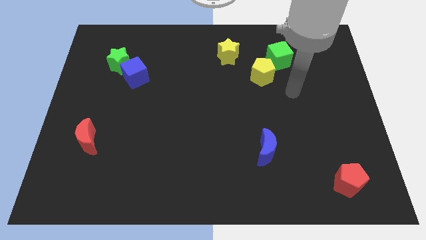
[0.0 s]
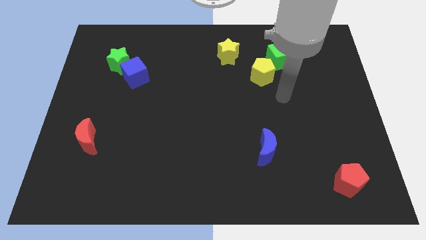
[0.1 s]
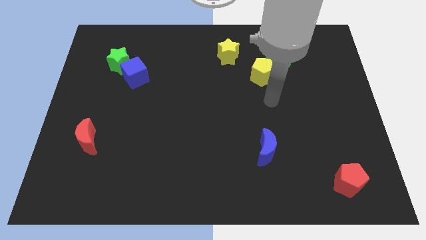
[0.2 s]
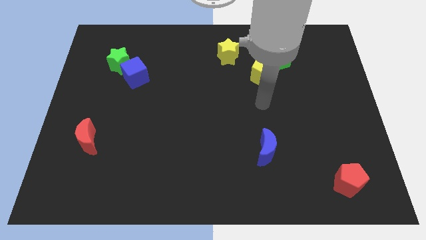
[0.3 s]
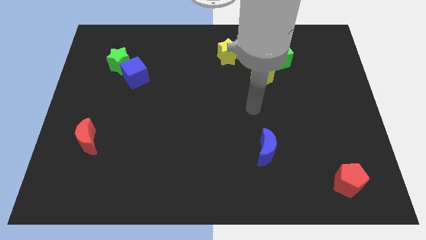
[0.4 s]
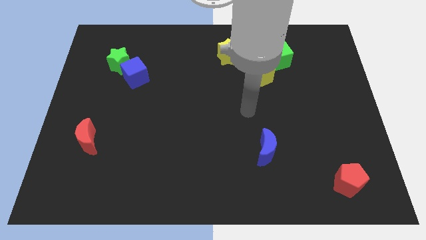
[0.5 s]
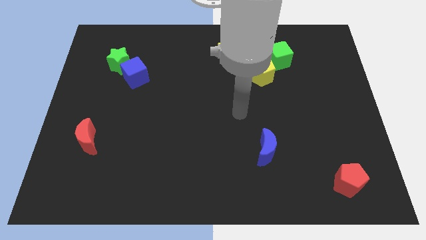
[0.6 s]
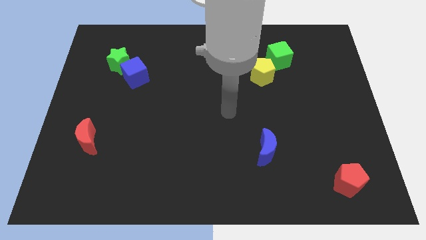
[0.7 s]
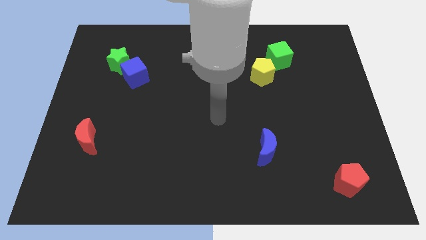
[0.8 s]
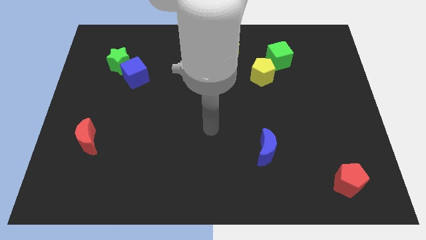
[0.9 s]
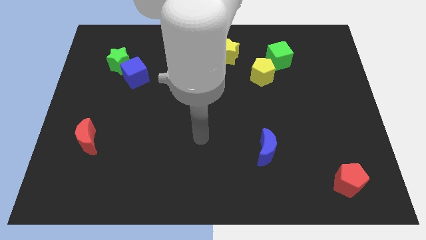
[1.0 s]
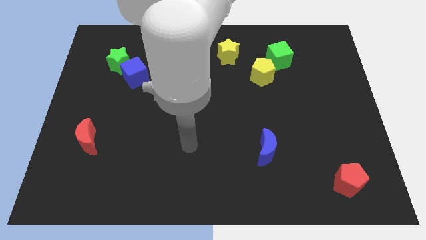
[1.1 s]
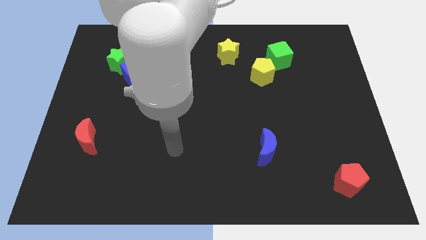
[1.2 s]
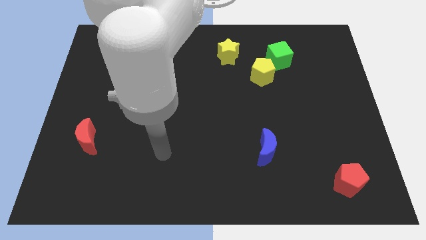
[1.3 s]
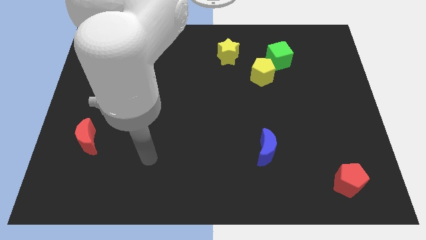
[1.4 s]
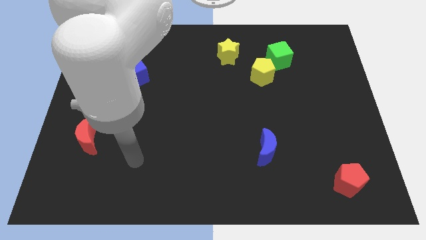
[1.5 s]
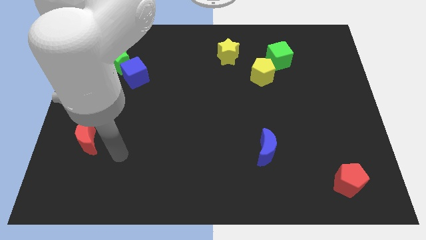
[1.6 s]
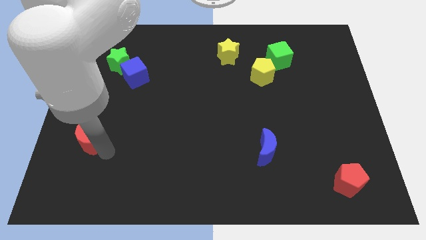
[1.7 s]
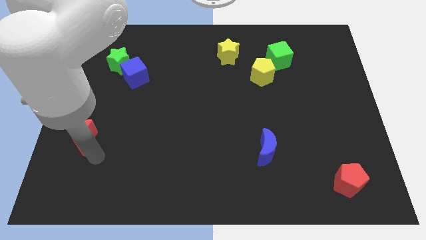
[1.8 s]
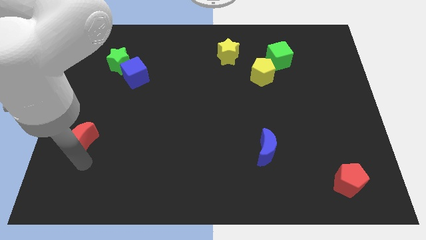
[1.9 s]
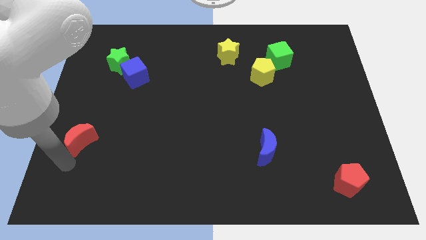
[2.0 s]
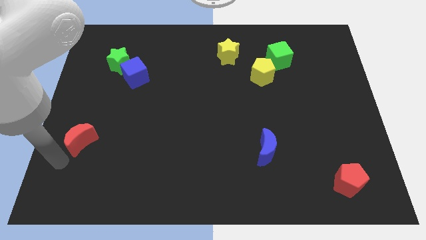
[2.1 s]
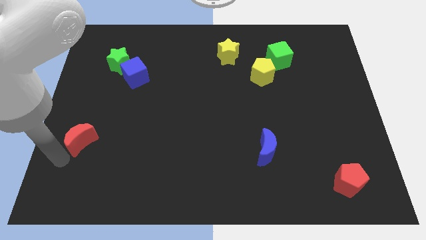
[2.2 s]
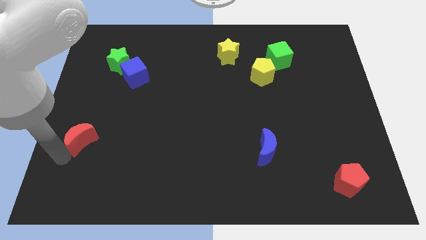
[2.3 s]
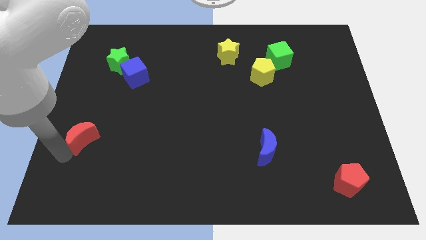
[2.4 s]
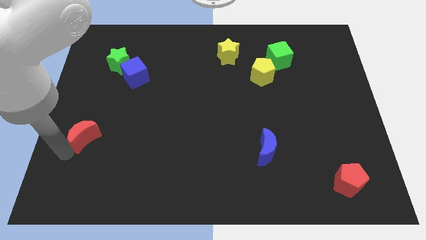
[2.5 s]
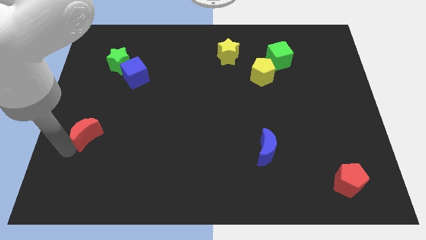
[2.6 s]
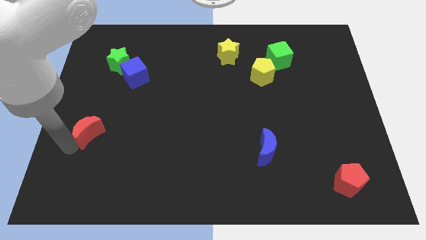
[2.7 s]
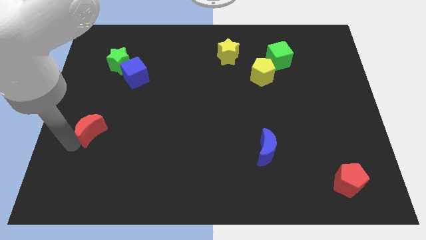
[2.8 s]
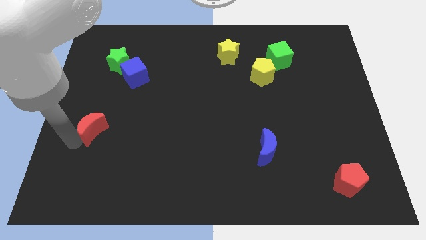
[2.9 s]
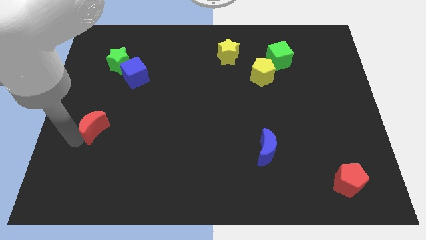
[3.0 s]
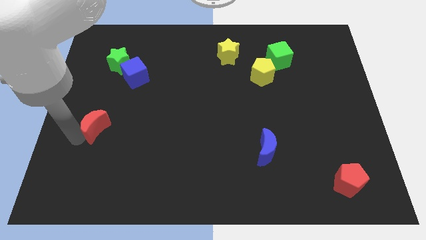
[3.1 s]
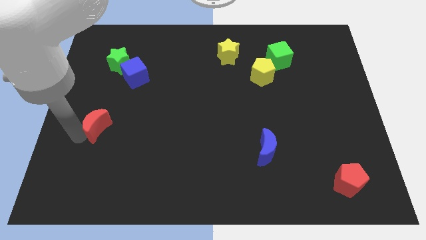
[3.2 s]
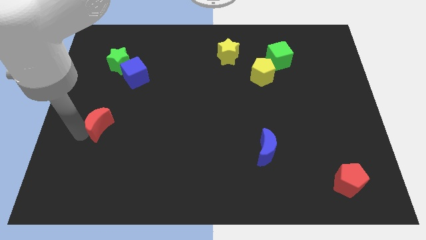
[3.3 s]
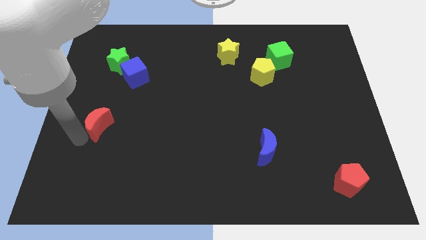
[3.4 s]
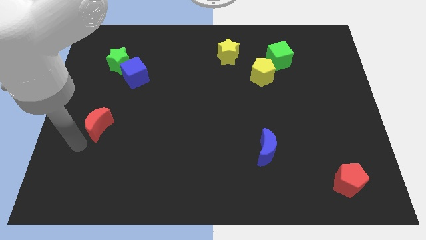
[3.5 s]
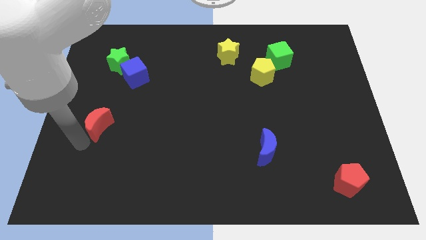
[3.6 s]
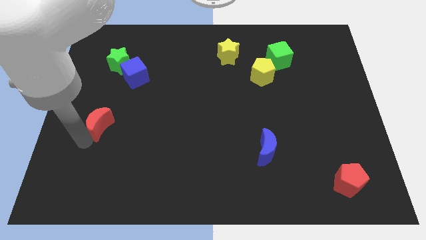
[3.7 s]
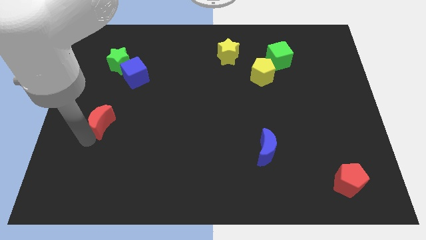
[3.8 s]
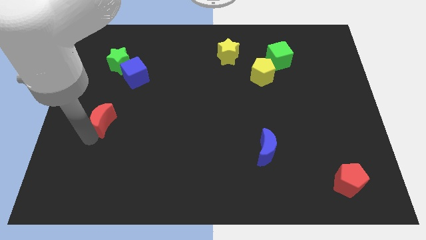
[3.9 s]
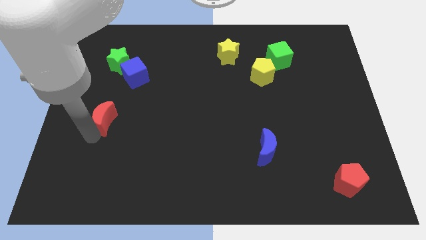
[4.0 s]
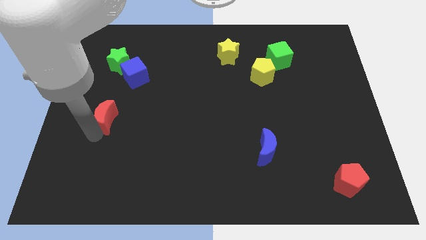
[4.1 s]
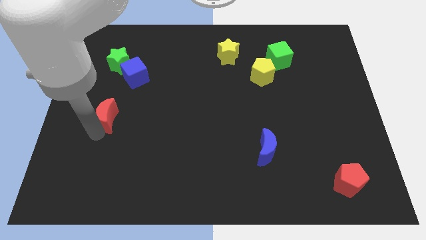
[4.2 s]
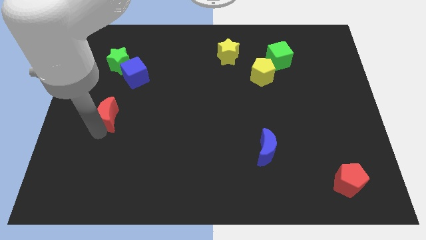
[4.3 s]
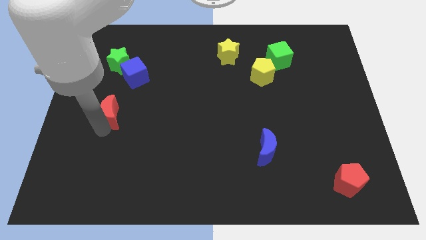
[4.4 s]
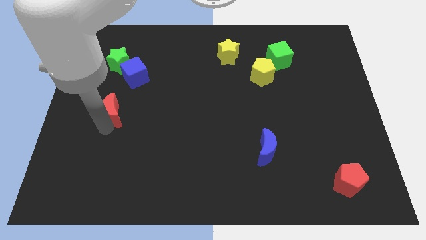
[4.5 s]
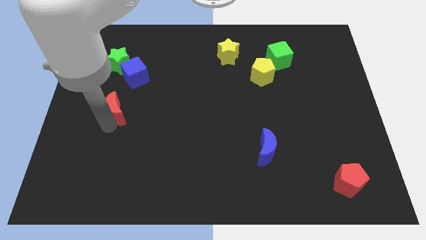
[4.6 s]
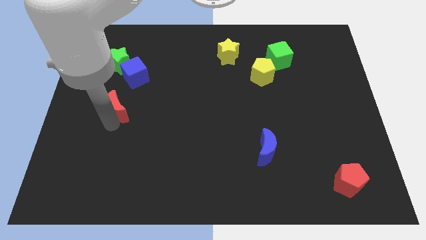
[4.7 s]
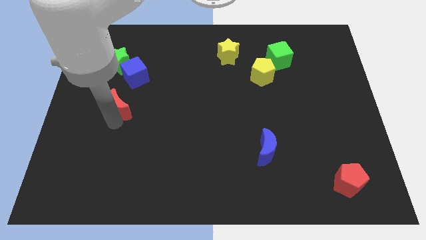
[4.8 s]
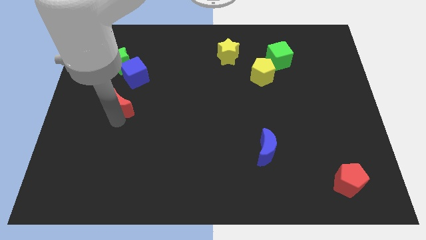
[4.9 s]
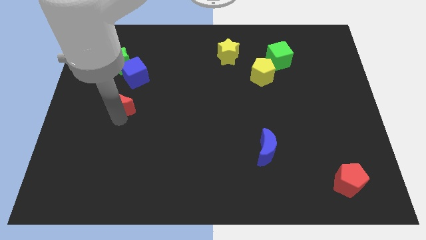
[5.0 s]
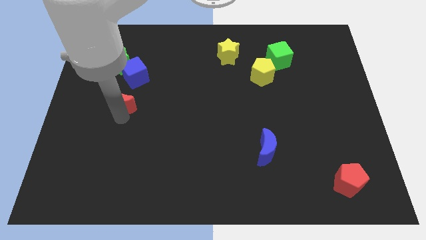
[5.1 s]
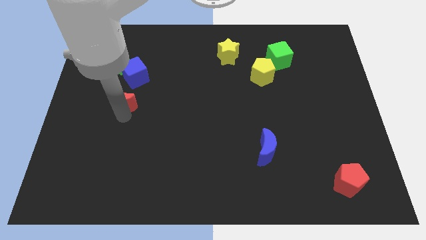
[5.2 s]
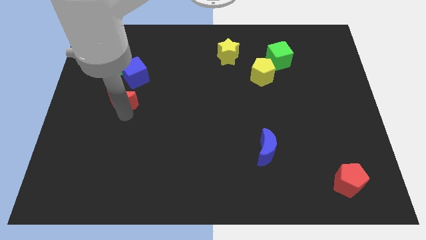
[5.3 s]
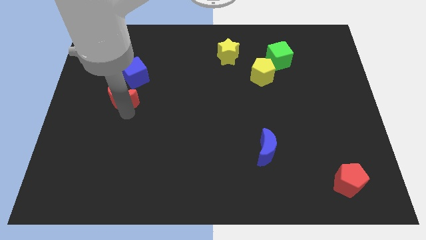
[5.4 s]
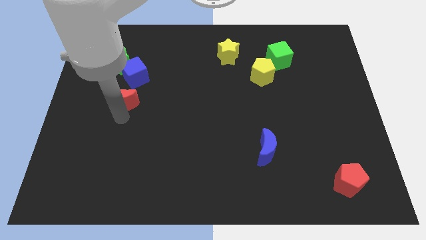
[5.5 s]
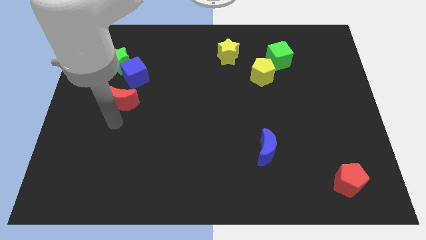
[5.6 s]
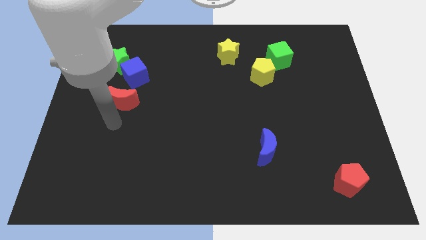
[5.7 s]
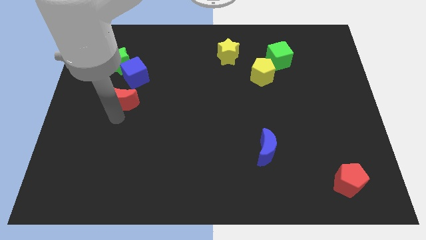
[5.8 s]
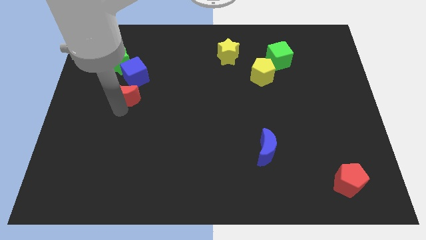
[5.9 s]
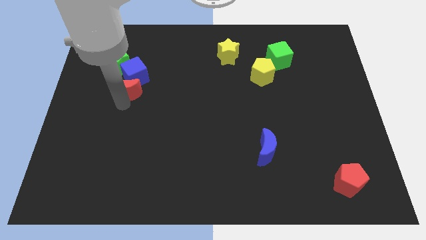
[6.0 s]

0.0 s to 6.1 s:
push the red moon to the blue cube

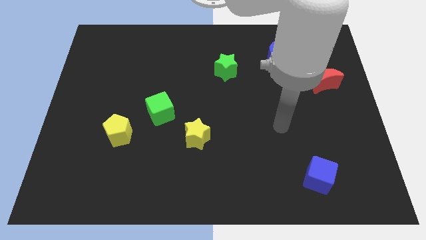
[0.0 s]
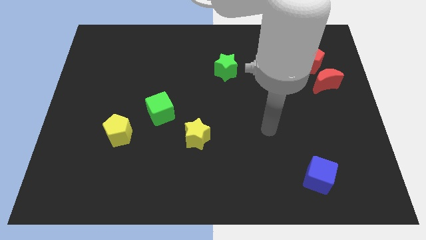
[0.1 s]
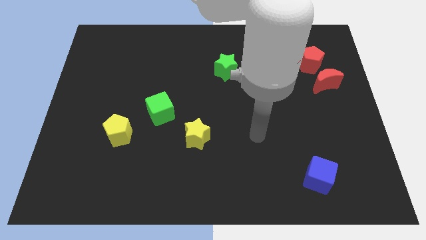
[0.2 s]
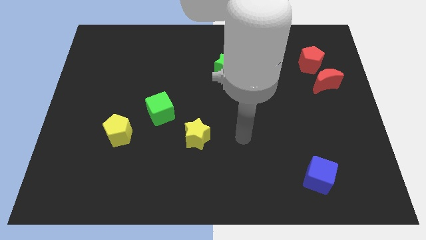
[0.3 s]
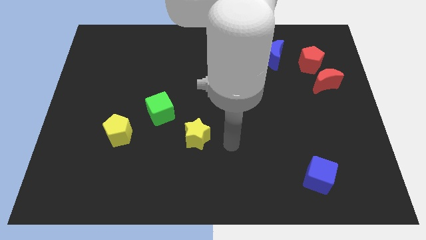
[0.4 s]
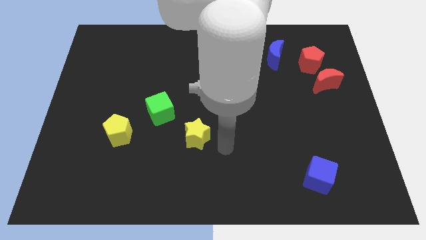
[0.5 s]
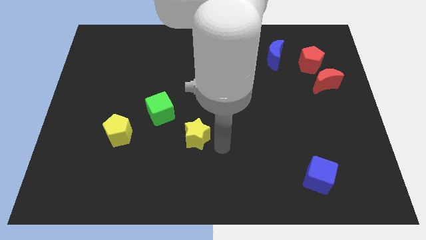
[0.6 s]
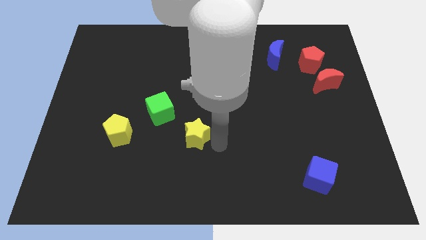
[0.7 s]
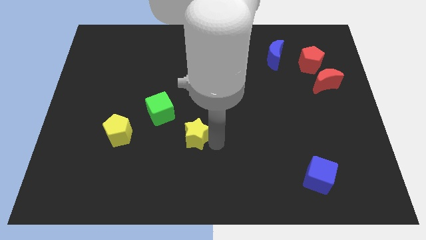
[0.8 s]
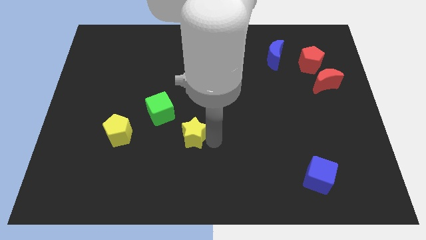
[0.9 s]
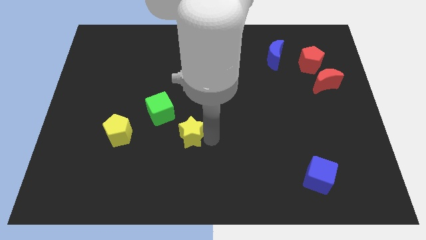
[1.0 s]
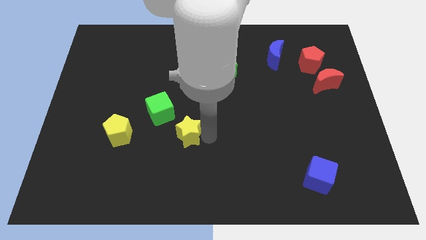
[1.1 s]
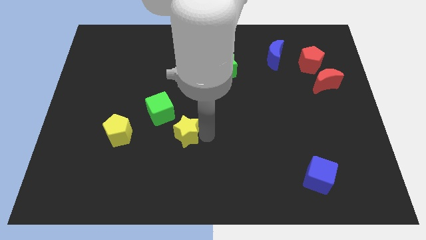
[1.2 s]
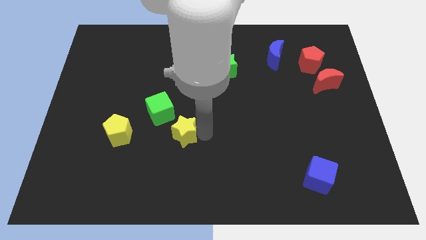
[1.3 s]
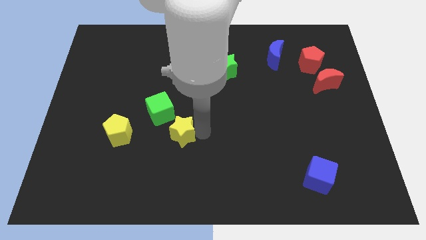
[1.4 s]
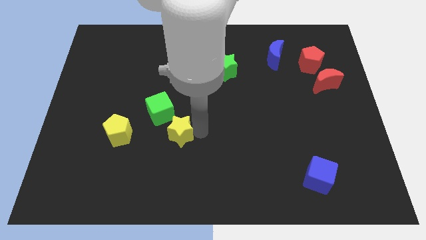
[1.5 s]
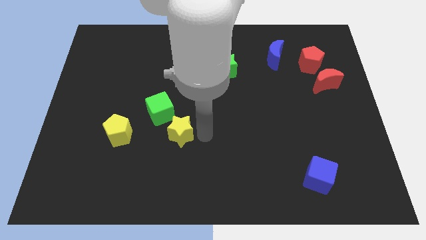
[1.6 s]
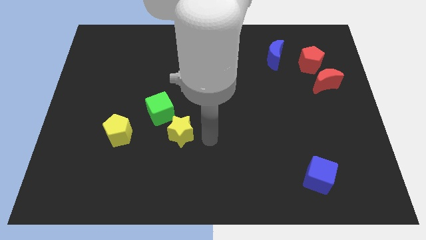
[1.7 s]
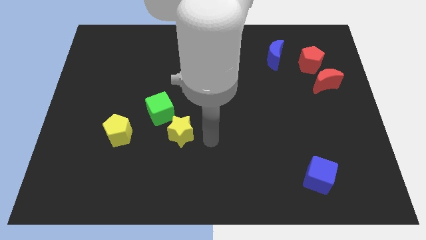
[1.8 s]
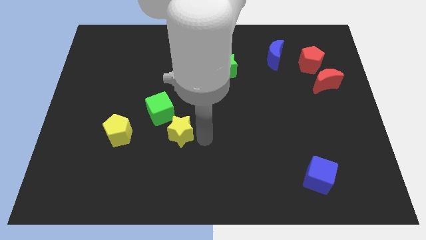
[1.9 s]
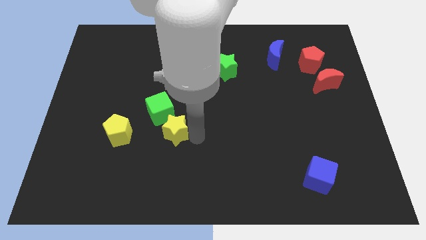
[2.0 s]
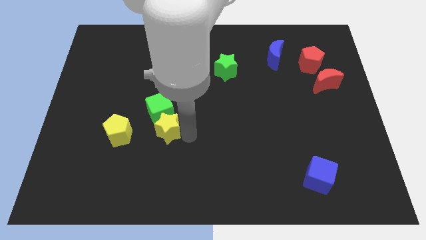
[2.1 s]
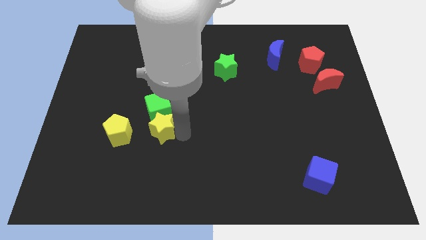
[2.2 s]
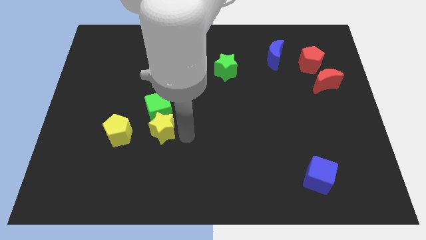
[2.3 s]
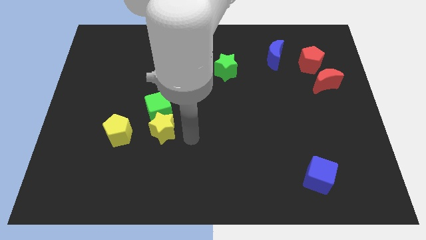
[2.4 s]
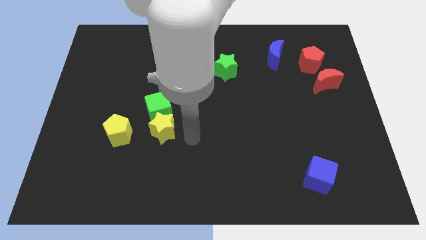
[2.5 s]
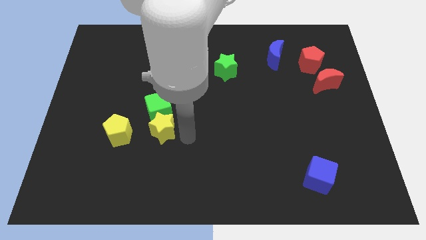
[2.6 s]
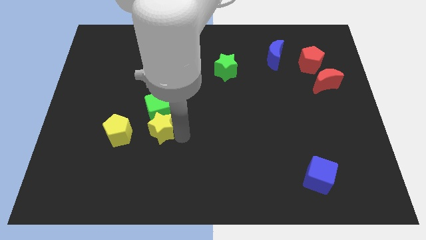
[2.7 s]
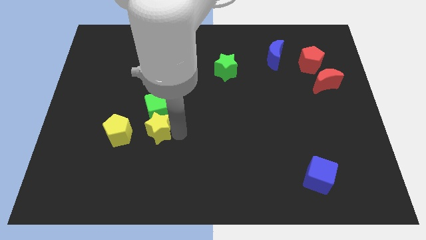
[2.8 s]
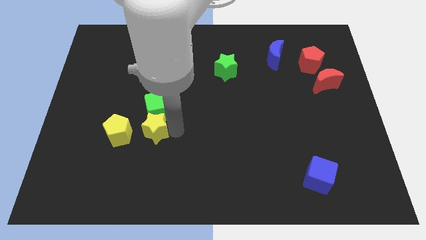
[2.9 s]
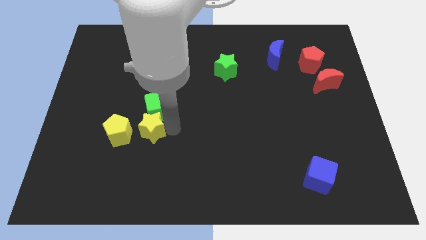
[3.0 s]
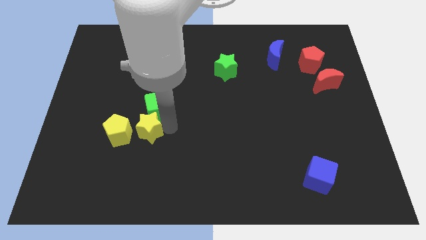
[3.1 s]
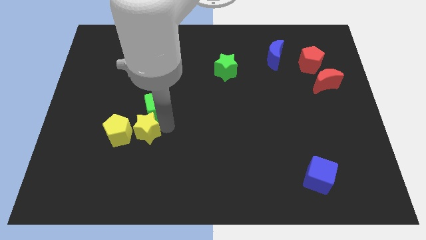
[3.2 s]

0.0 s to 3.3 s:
move the yellow star towards the yellow pentagon
